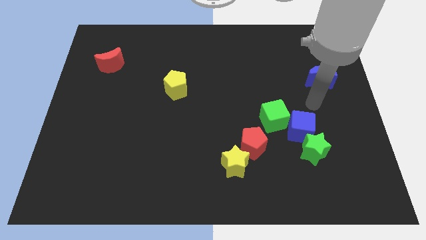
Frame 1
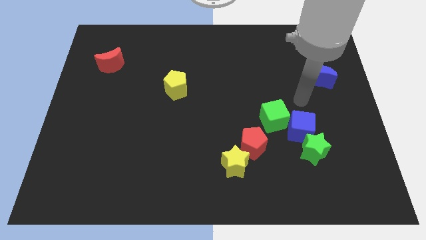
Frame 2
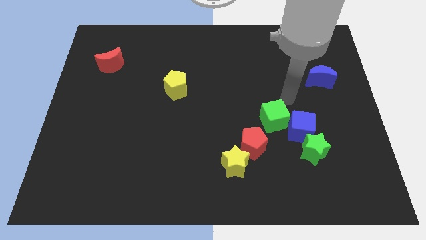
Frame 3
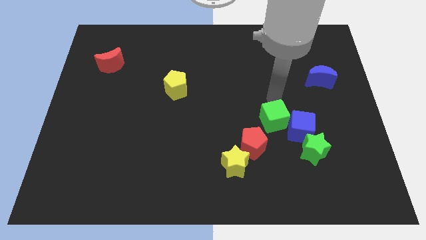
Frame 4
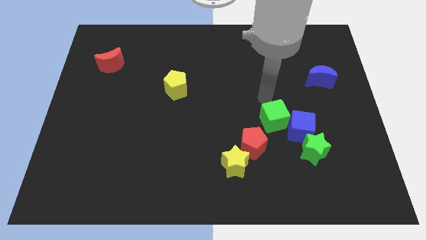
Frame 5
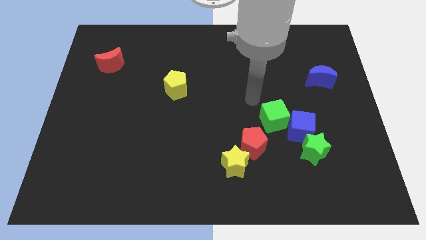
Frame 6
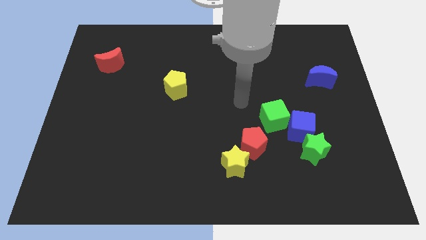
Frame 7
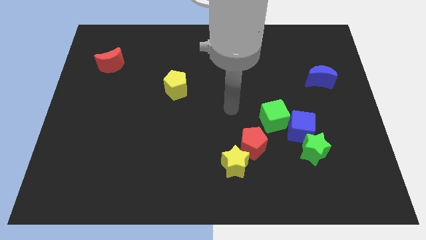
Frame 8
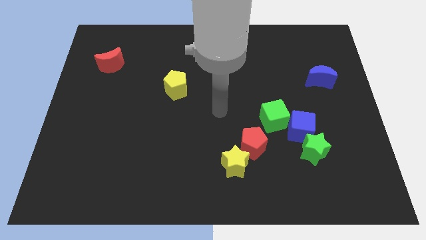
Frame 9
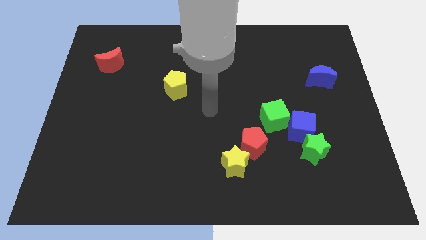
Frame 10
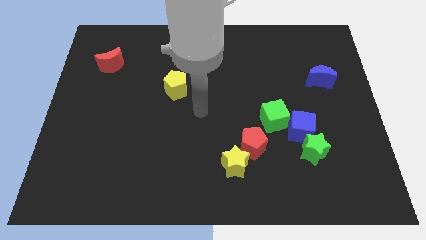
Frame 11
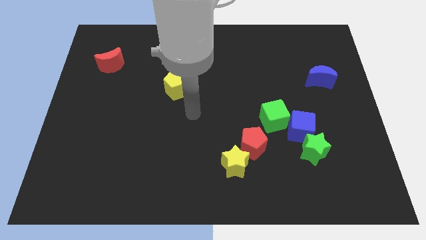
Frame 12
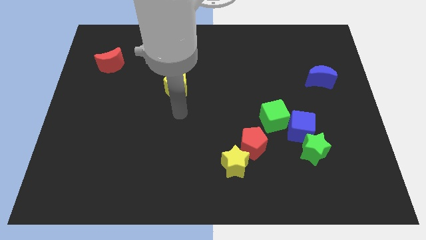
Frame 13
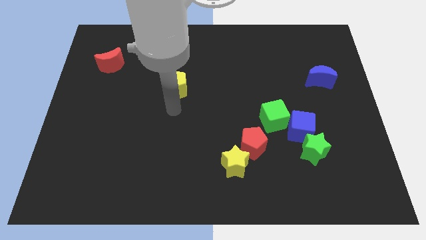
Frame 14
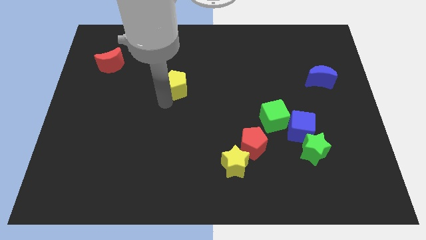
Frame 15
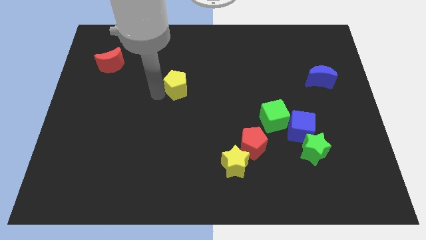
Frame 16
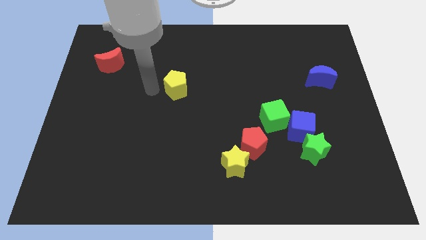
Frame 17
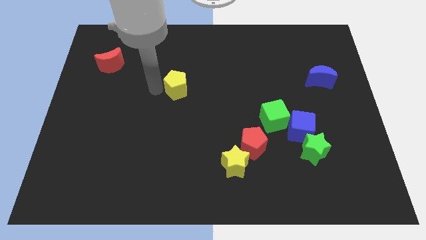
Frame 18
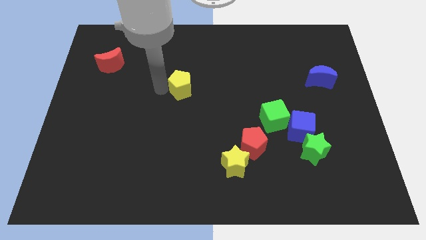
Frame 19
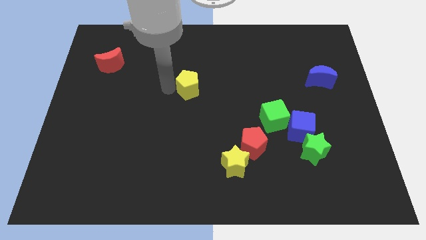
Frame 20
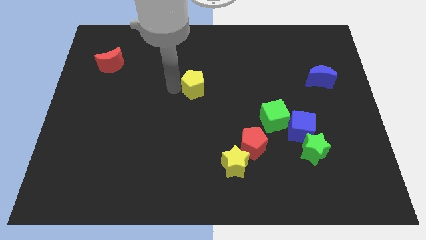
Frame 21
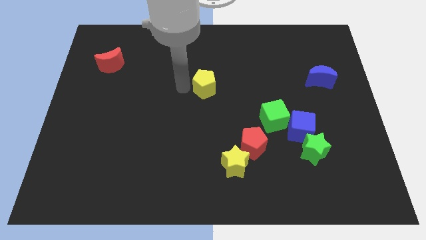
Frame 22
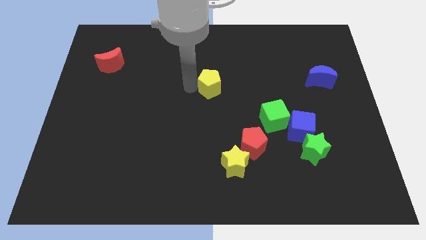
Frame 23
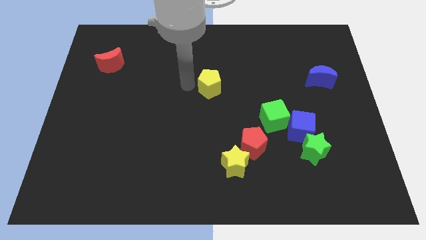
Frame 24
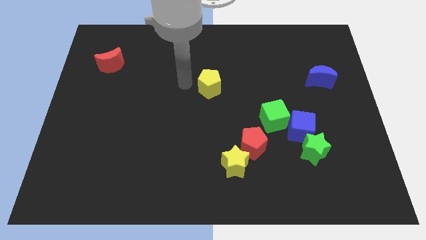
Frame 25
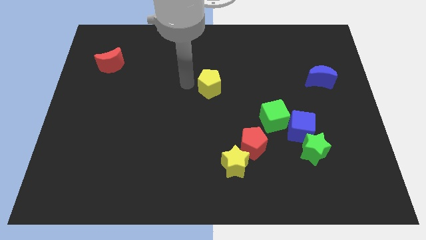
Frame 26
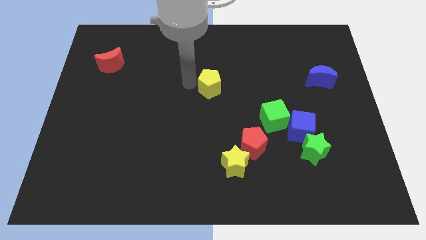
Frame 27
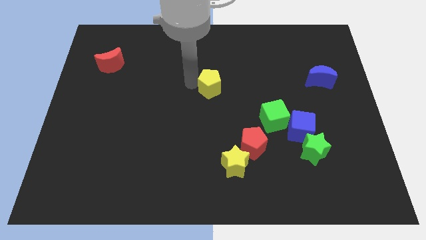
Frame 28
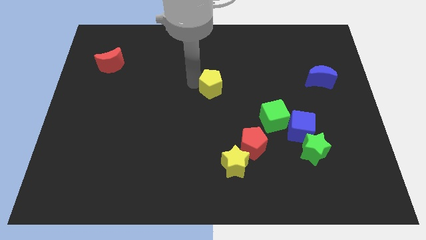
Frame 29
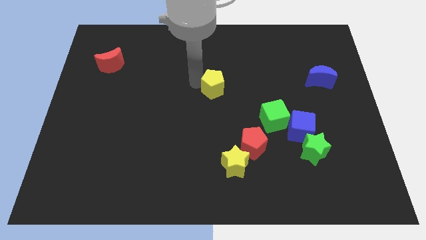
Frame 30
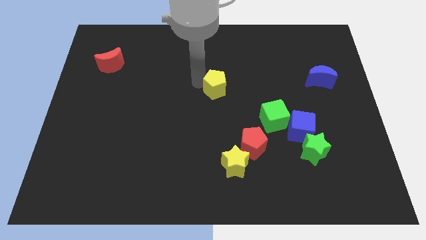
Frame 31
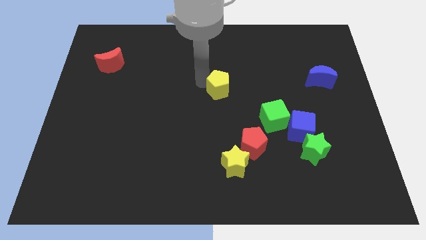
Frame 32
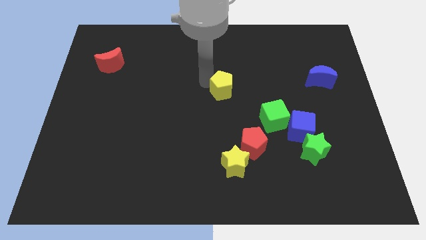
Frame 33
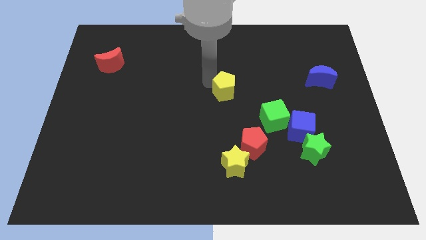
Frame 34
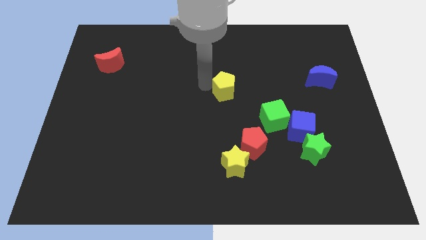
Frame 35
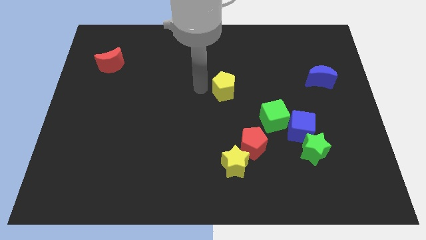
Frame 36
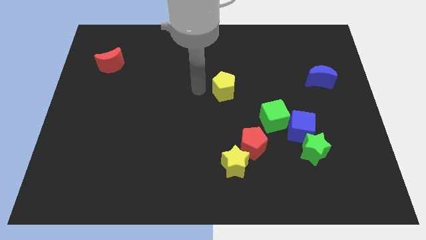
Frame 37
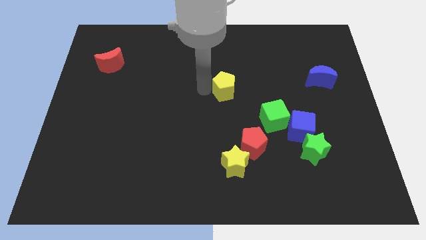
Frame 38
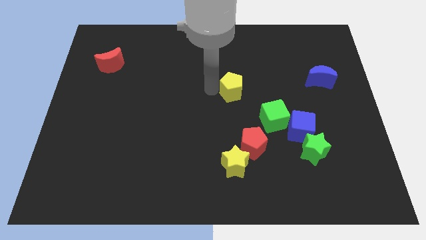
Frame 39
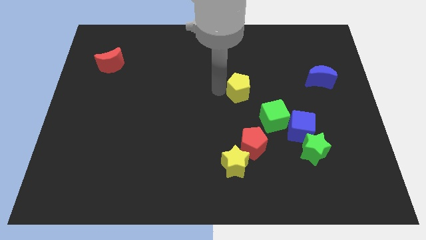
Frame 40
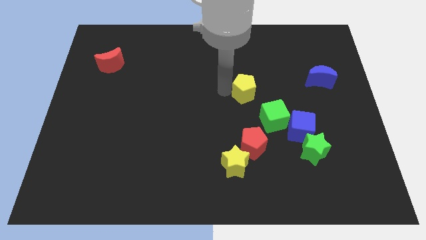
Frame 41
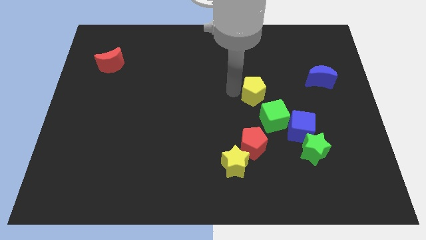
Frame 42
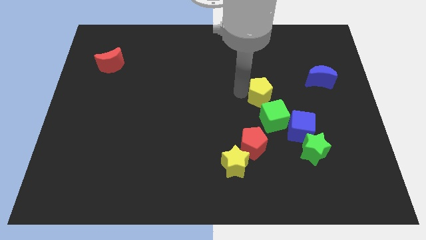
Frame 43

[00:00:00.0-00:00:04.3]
move the yellow pentagon to the right

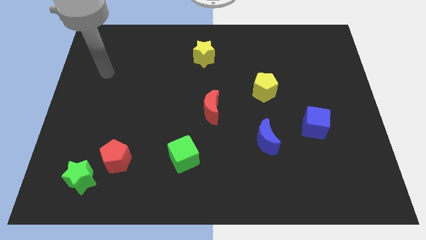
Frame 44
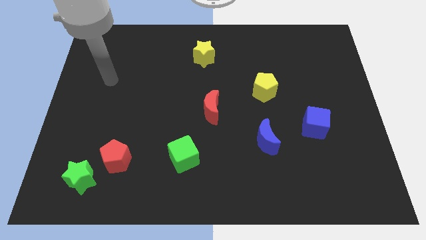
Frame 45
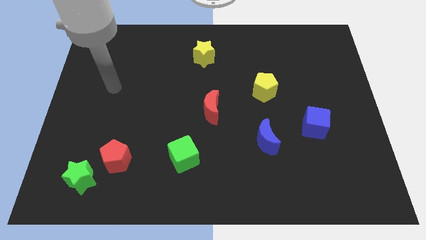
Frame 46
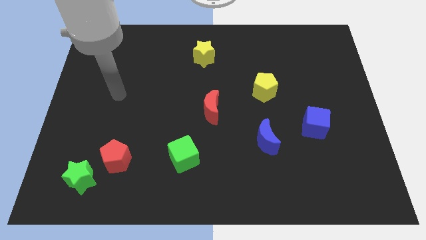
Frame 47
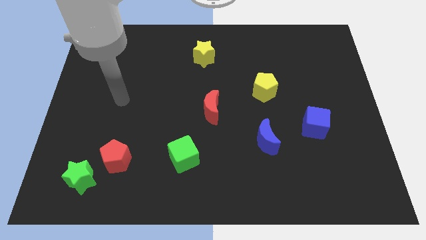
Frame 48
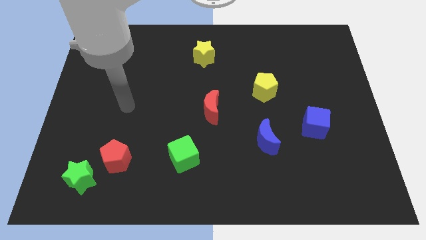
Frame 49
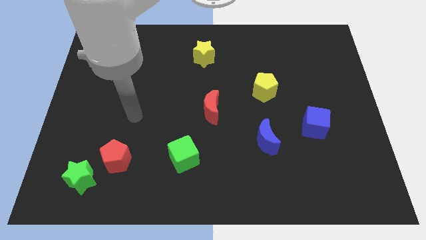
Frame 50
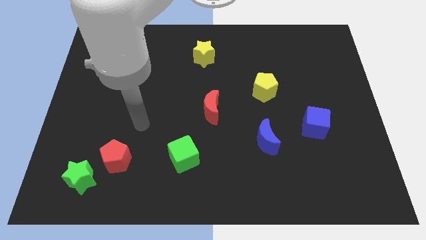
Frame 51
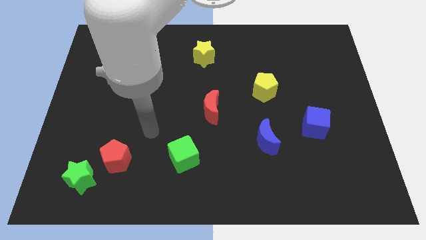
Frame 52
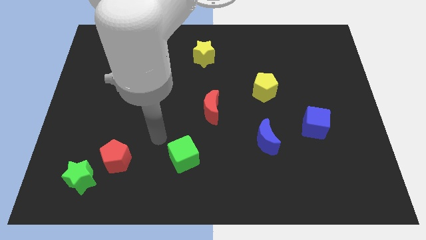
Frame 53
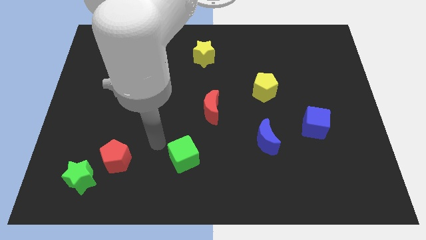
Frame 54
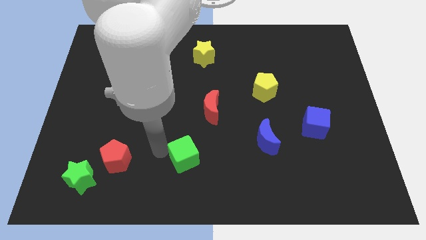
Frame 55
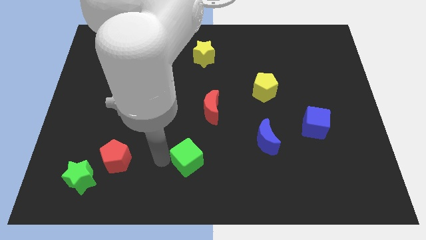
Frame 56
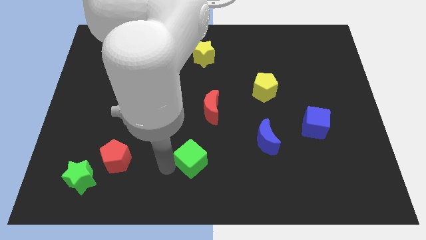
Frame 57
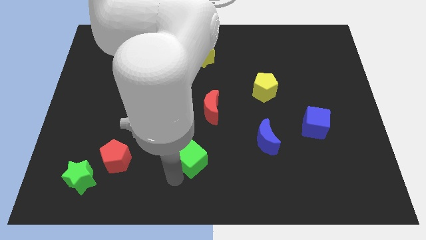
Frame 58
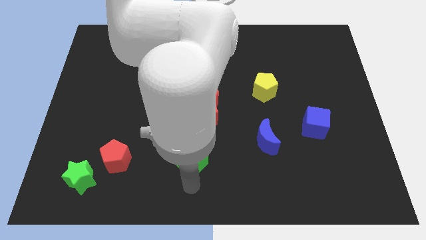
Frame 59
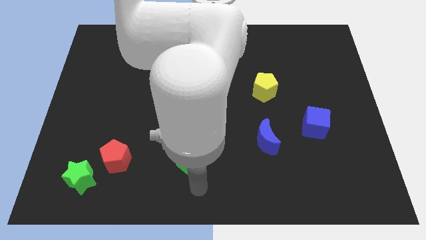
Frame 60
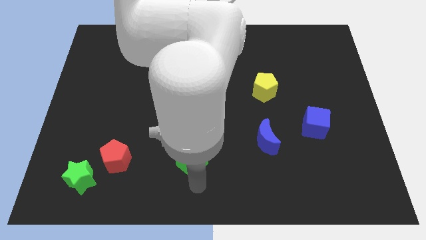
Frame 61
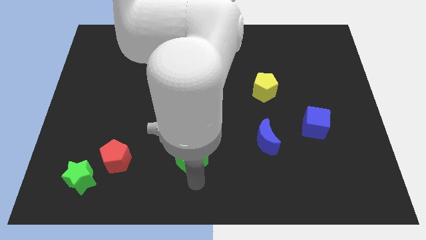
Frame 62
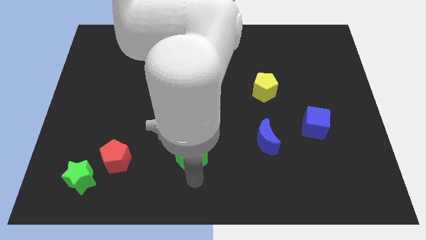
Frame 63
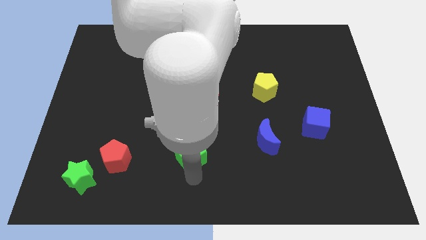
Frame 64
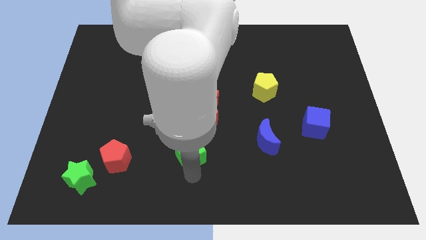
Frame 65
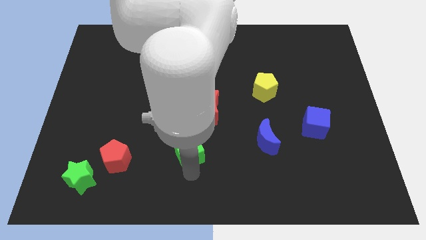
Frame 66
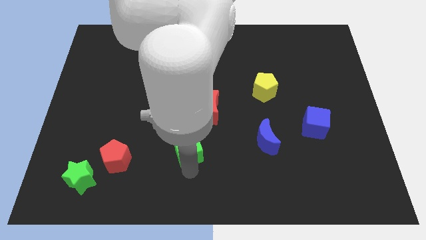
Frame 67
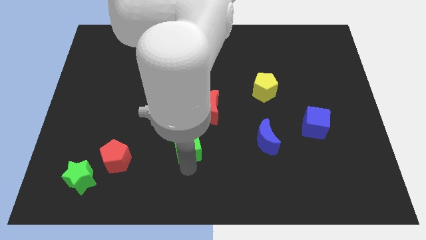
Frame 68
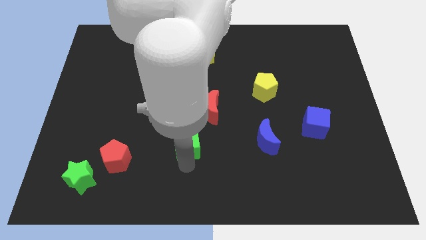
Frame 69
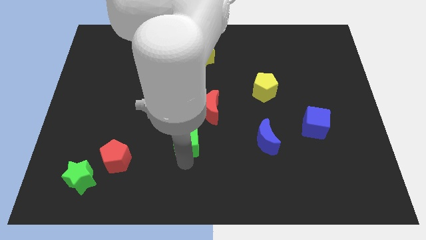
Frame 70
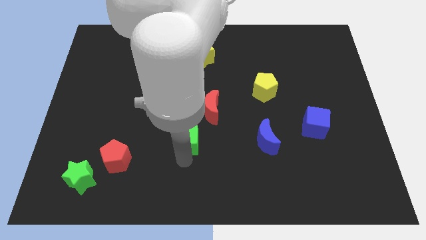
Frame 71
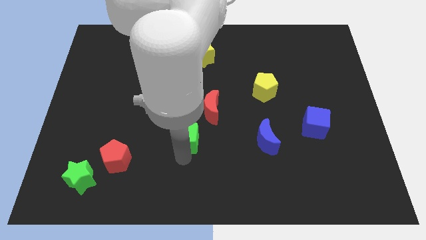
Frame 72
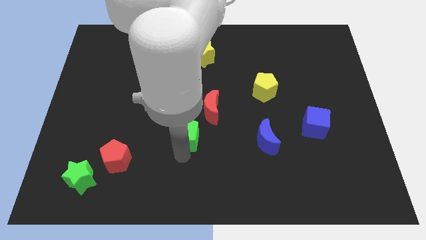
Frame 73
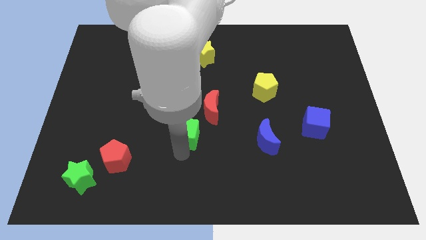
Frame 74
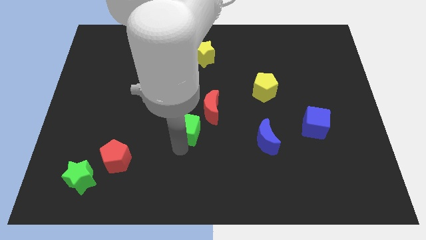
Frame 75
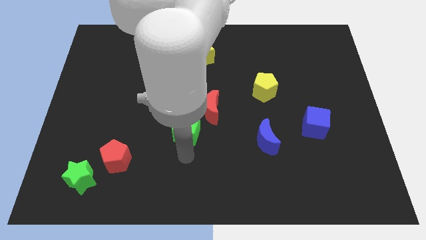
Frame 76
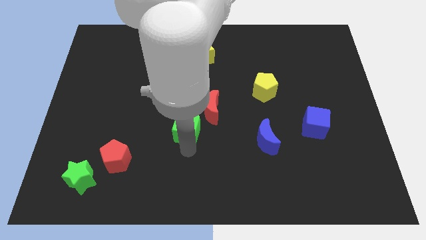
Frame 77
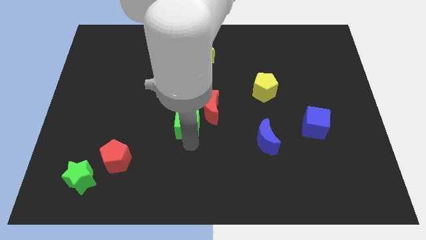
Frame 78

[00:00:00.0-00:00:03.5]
push the green cube up somewhat

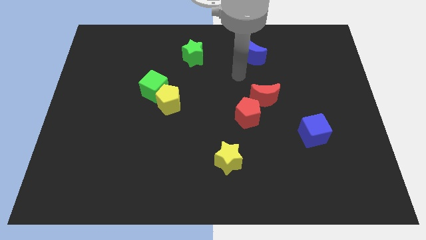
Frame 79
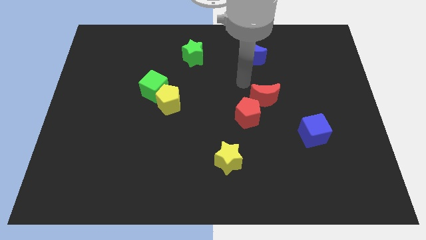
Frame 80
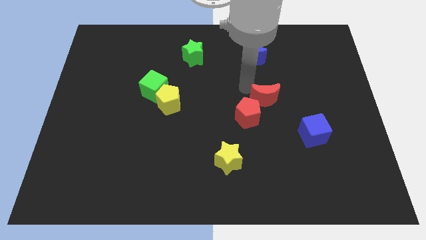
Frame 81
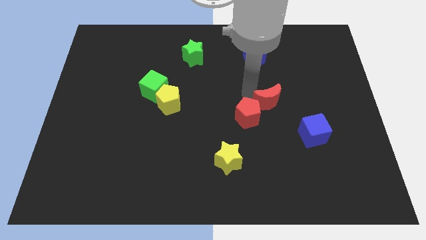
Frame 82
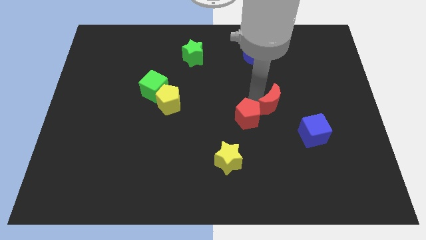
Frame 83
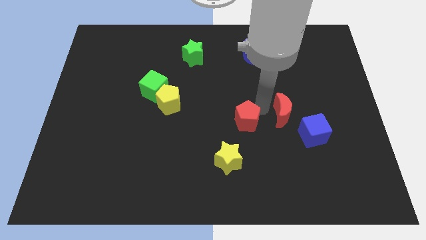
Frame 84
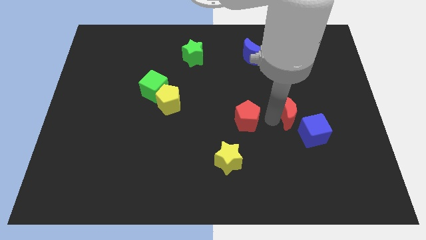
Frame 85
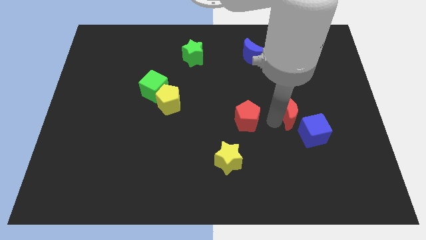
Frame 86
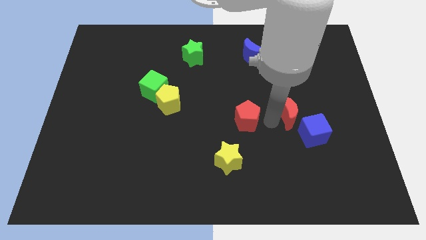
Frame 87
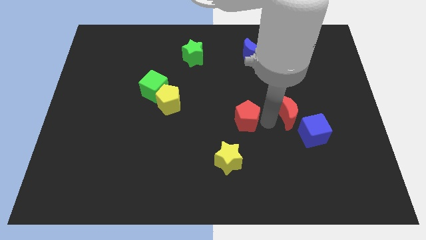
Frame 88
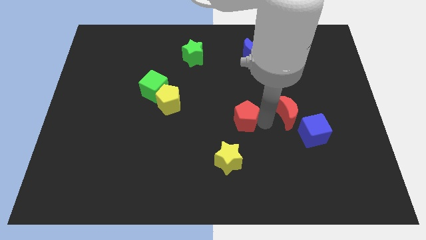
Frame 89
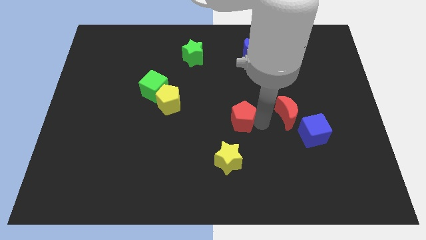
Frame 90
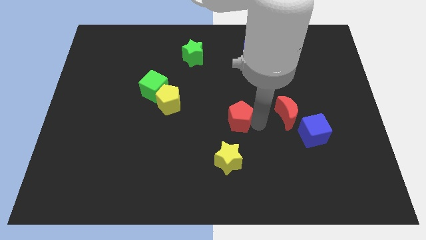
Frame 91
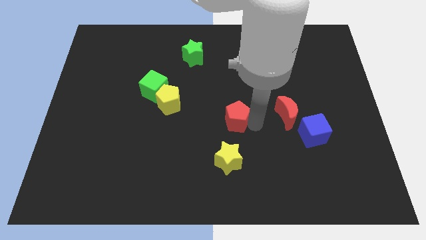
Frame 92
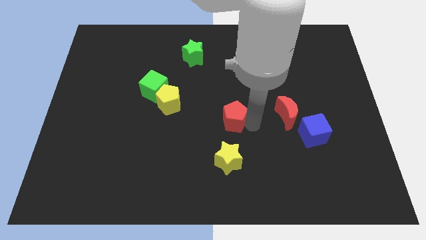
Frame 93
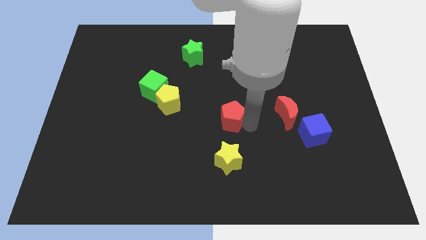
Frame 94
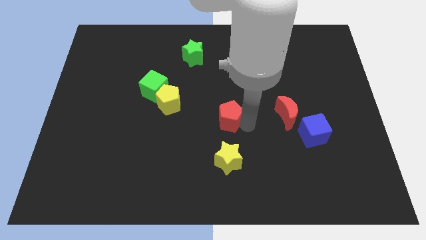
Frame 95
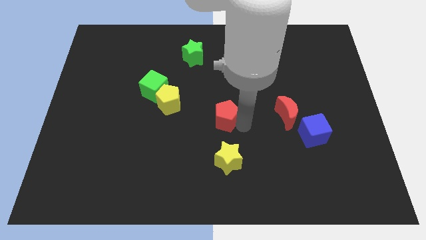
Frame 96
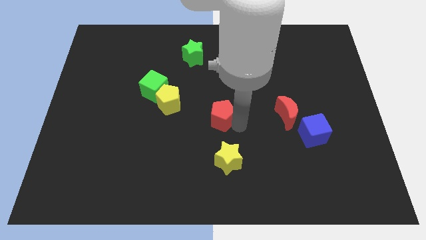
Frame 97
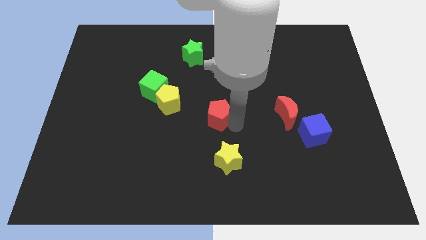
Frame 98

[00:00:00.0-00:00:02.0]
move the red pentagon somewhat left
